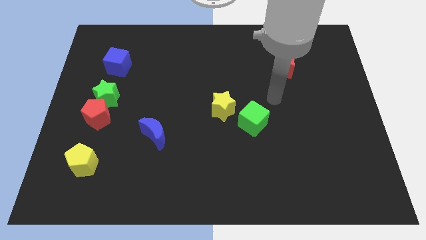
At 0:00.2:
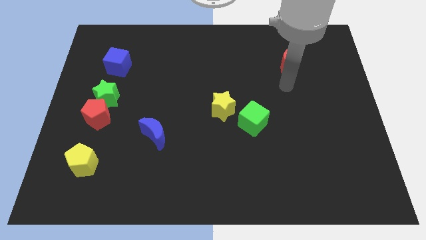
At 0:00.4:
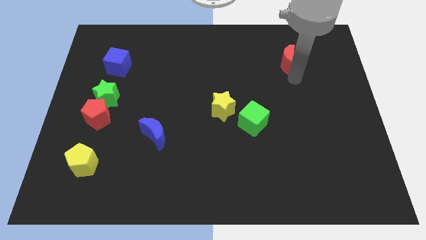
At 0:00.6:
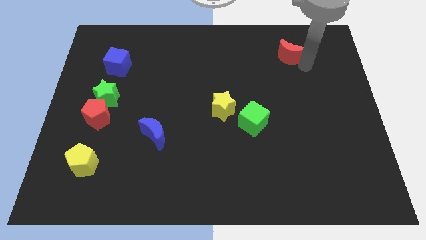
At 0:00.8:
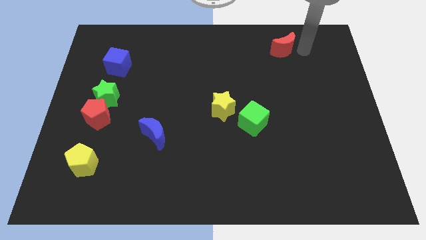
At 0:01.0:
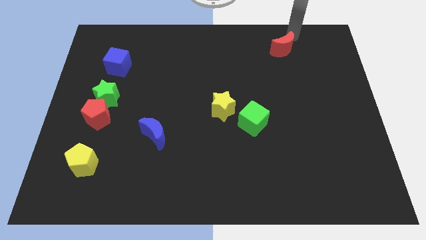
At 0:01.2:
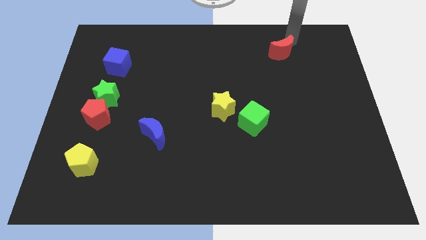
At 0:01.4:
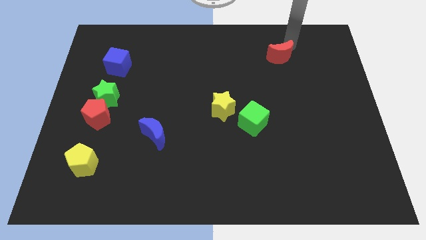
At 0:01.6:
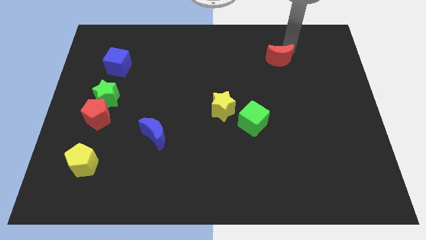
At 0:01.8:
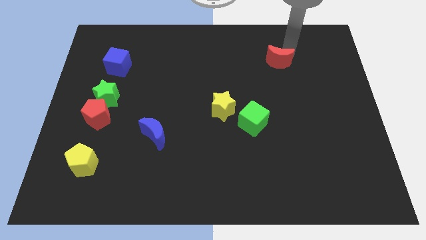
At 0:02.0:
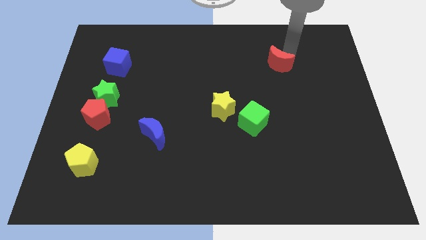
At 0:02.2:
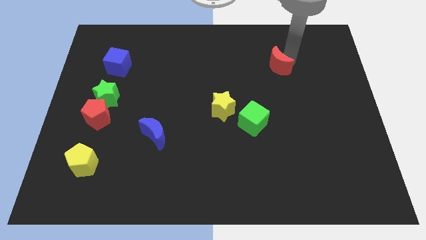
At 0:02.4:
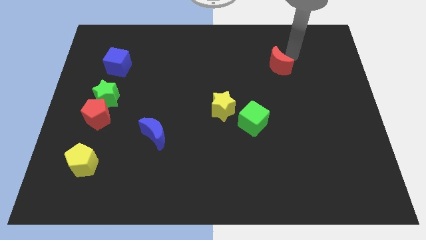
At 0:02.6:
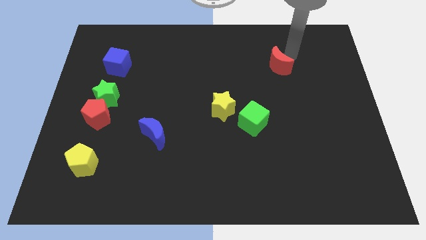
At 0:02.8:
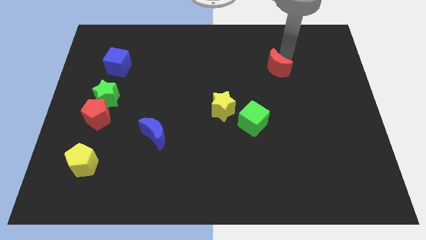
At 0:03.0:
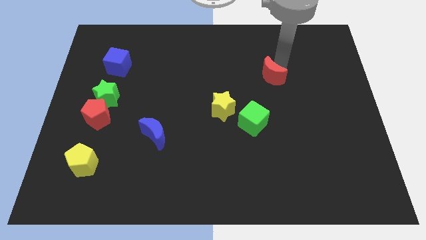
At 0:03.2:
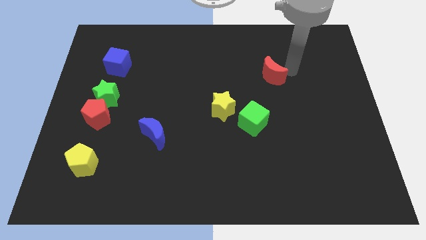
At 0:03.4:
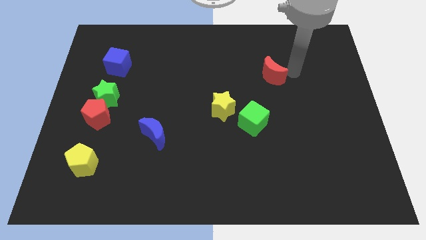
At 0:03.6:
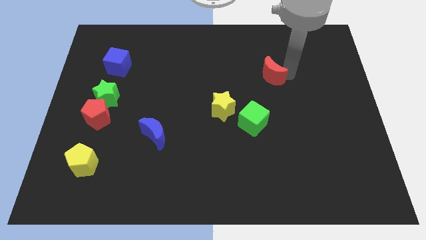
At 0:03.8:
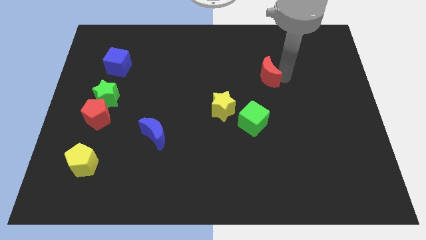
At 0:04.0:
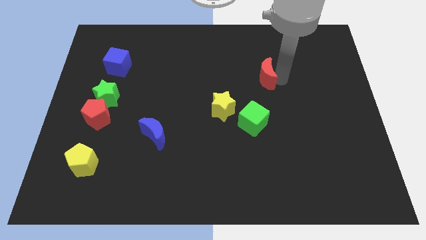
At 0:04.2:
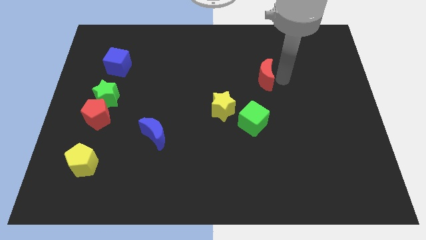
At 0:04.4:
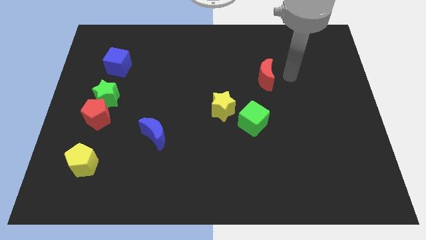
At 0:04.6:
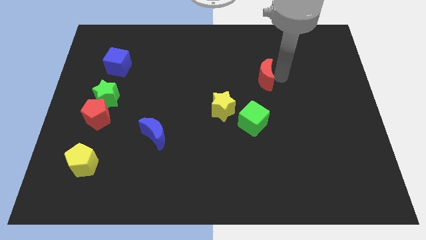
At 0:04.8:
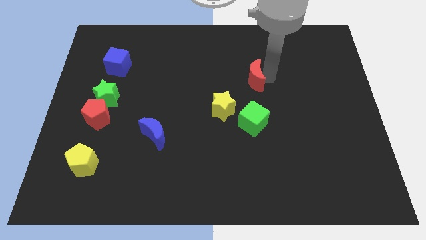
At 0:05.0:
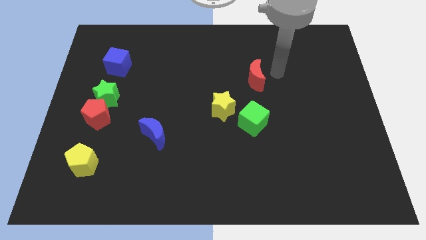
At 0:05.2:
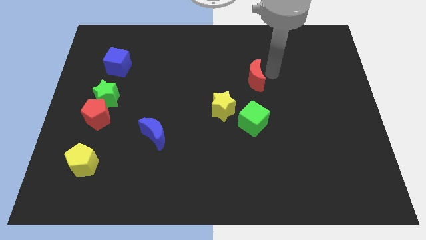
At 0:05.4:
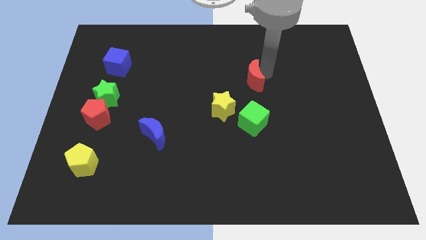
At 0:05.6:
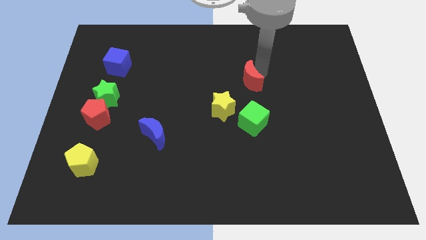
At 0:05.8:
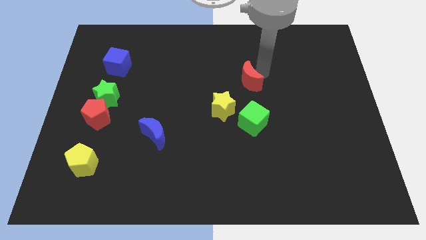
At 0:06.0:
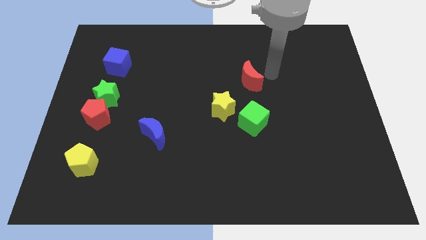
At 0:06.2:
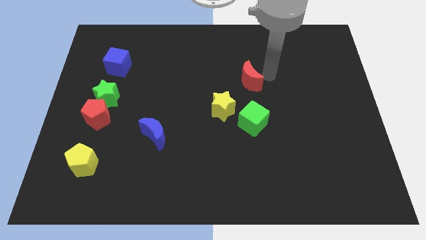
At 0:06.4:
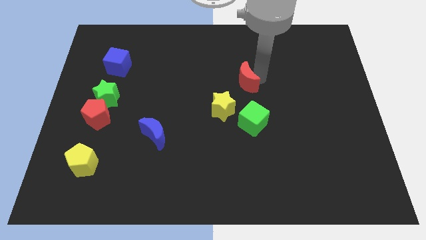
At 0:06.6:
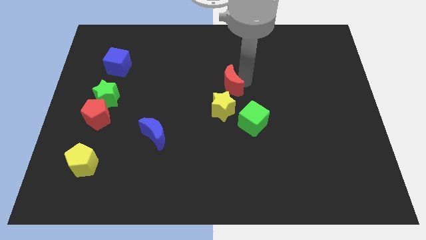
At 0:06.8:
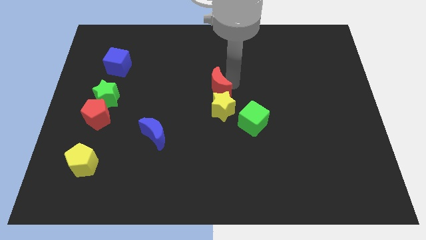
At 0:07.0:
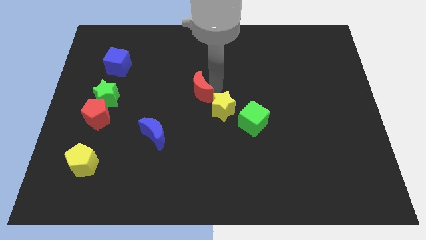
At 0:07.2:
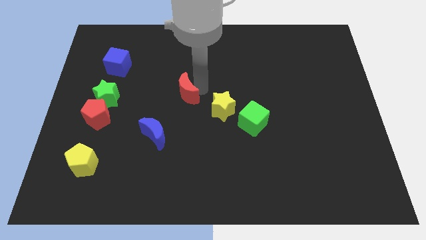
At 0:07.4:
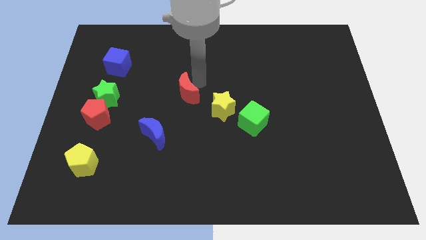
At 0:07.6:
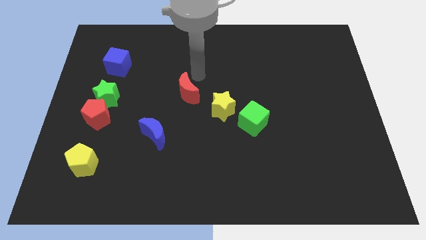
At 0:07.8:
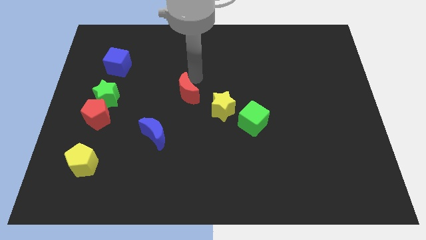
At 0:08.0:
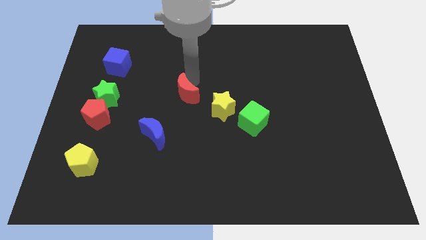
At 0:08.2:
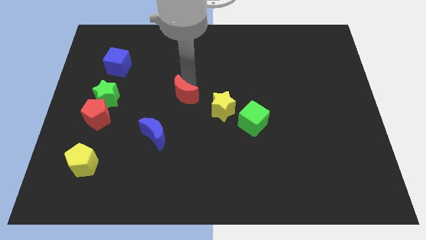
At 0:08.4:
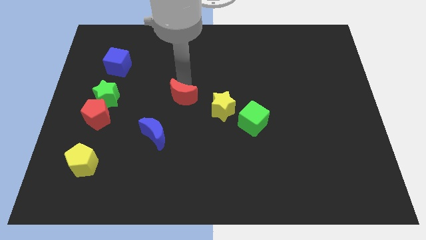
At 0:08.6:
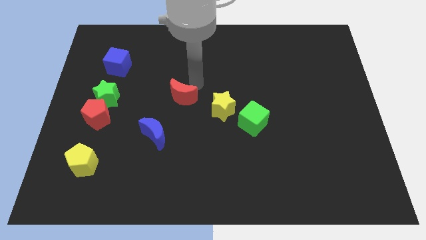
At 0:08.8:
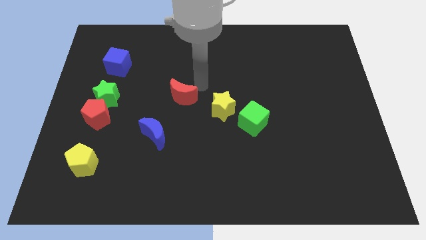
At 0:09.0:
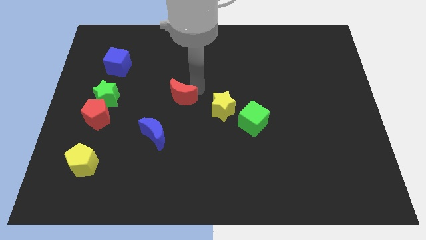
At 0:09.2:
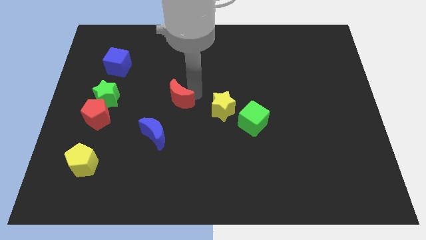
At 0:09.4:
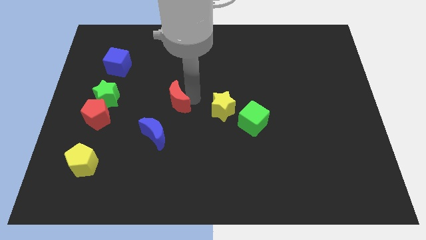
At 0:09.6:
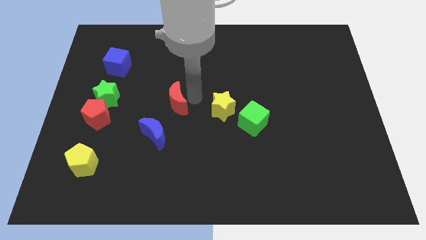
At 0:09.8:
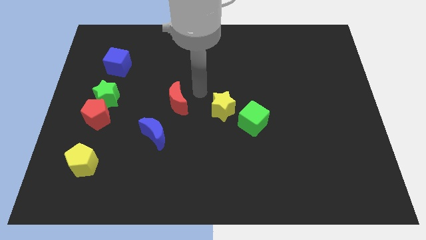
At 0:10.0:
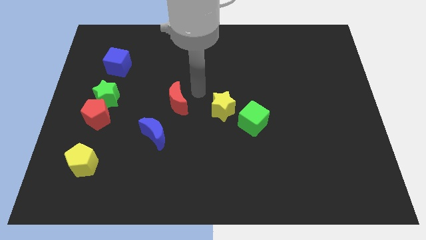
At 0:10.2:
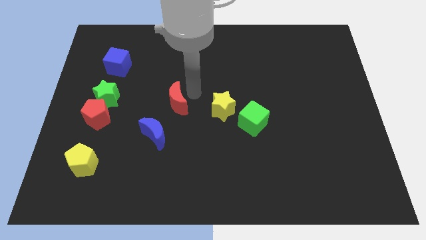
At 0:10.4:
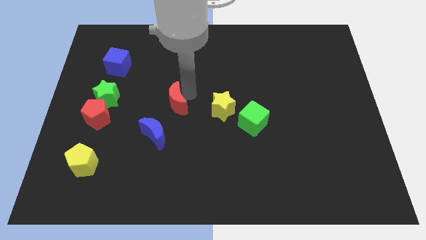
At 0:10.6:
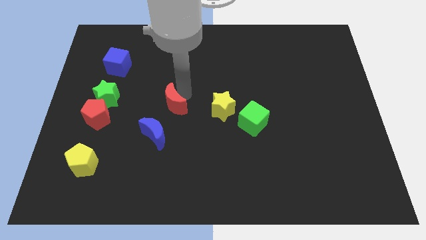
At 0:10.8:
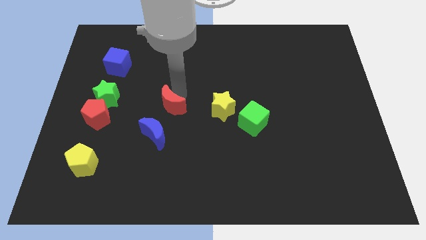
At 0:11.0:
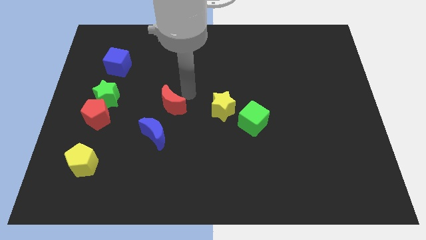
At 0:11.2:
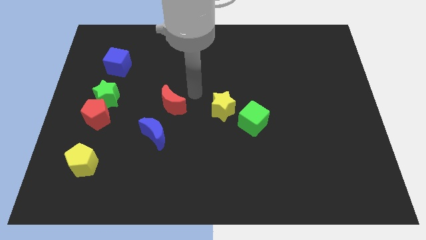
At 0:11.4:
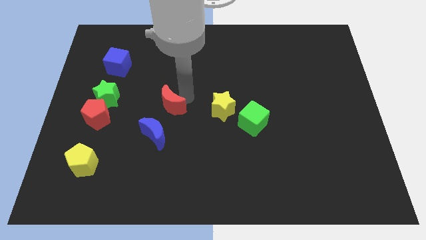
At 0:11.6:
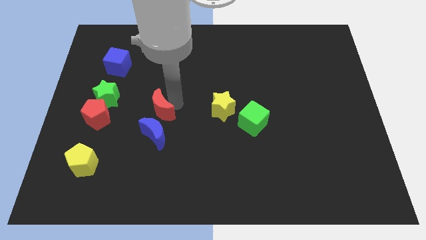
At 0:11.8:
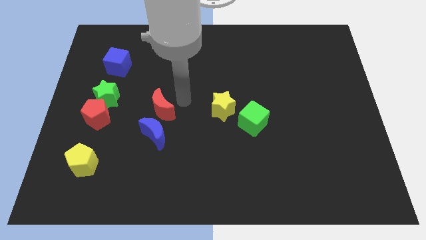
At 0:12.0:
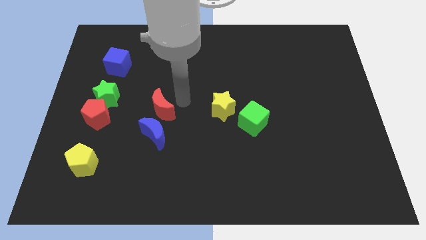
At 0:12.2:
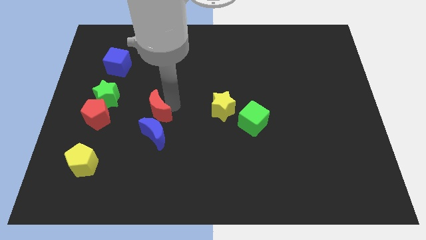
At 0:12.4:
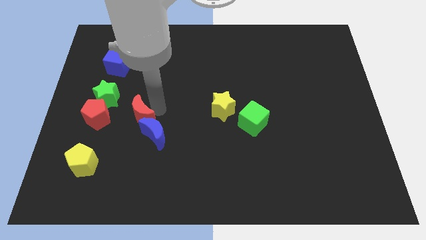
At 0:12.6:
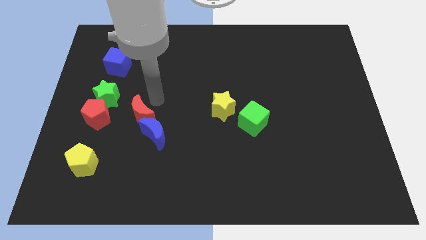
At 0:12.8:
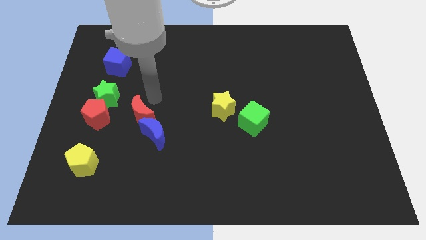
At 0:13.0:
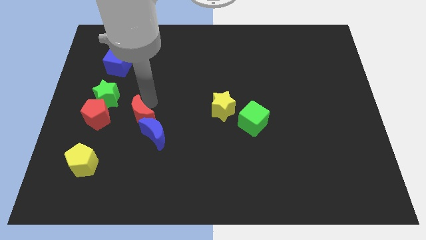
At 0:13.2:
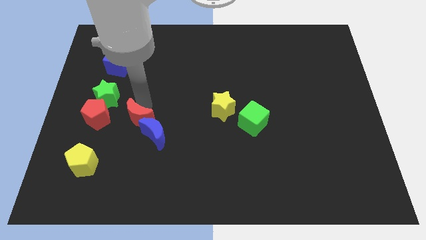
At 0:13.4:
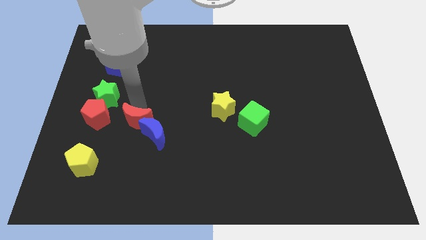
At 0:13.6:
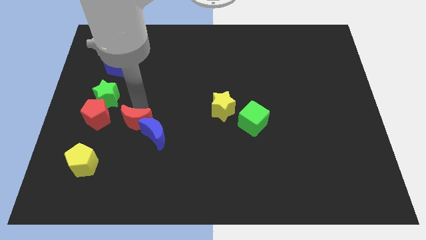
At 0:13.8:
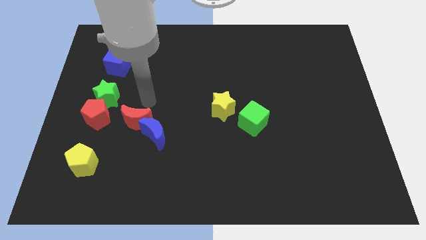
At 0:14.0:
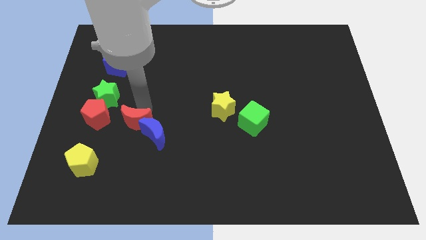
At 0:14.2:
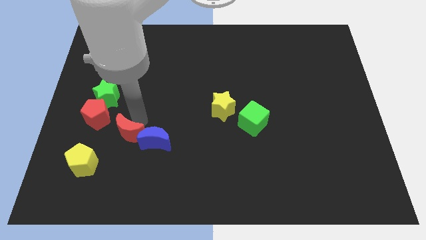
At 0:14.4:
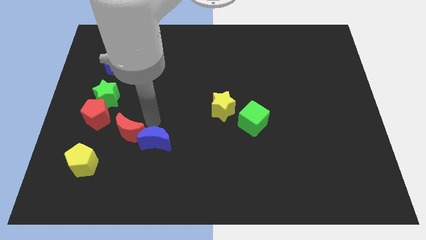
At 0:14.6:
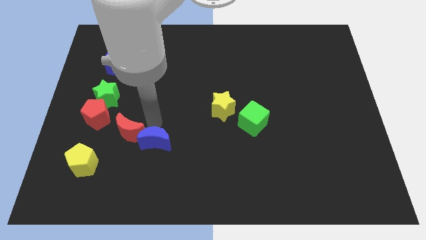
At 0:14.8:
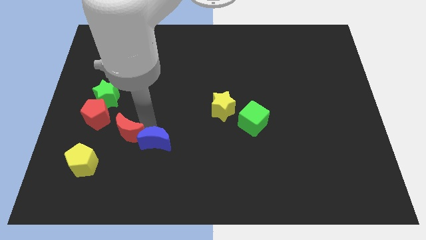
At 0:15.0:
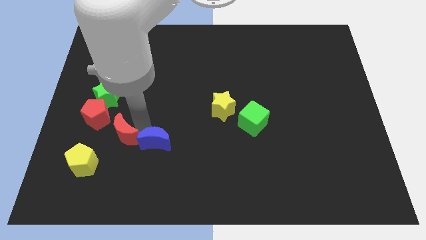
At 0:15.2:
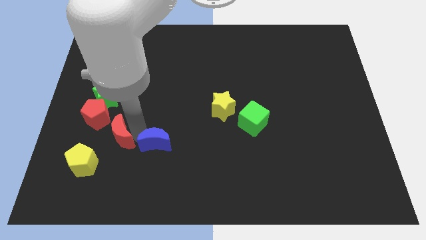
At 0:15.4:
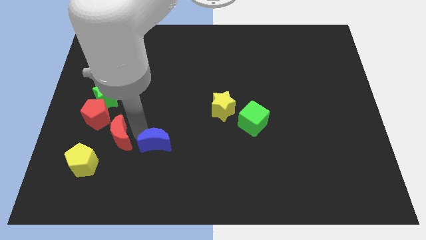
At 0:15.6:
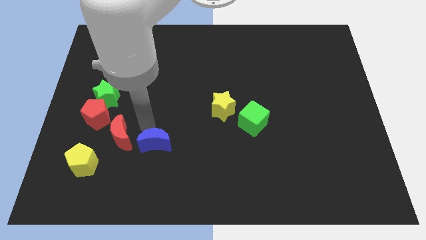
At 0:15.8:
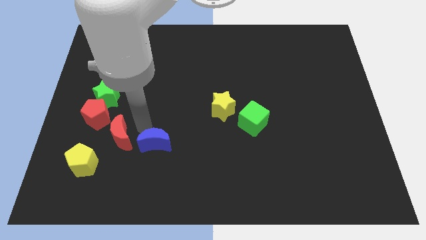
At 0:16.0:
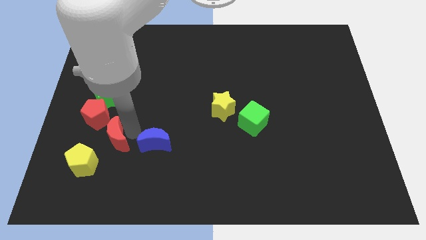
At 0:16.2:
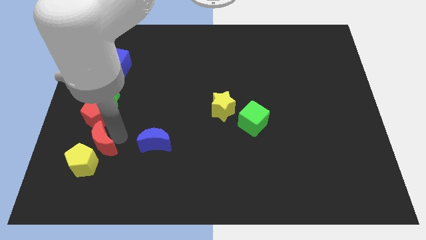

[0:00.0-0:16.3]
put the red moon towards the yellow pentagon
